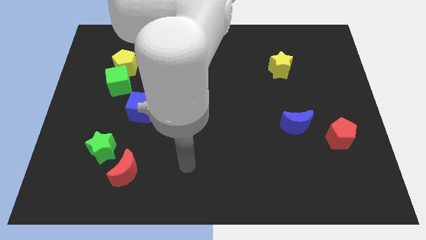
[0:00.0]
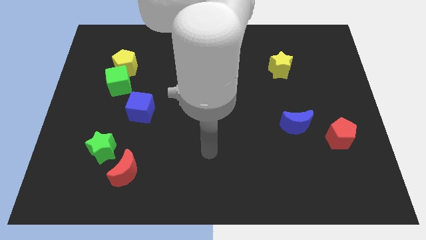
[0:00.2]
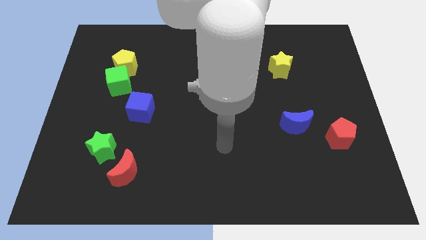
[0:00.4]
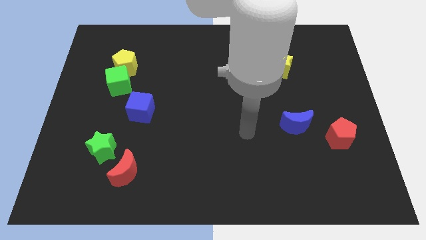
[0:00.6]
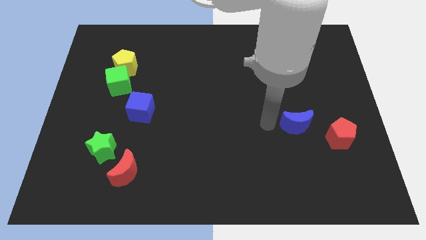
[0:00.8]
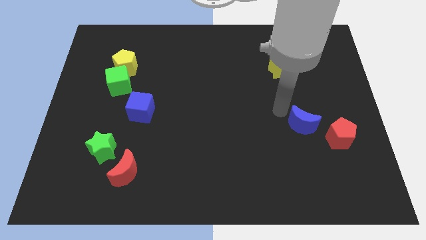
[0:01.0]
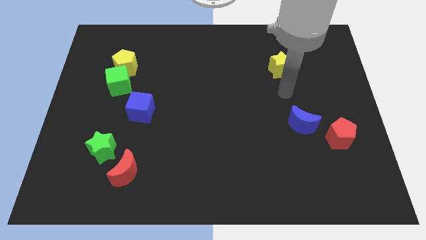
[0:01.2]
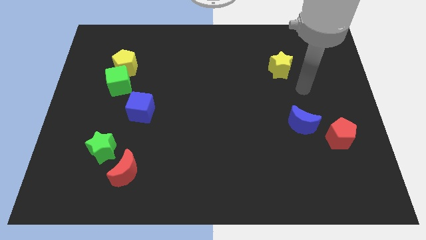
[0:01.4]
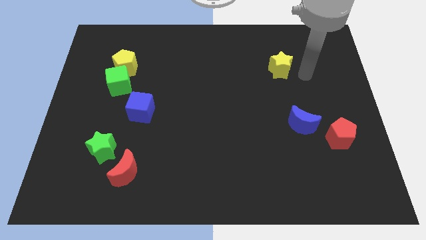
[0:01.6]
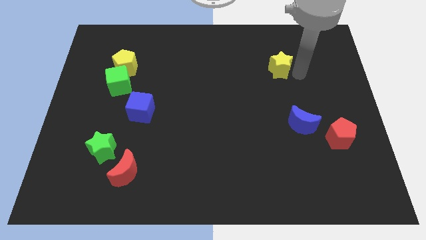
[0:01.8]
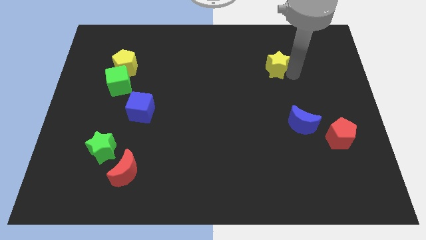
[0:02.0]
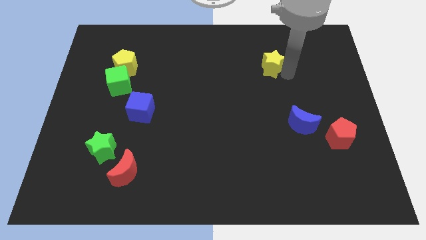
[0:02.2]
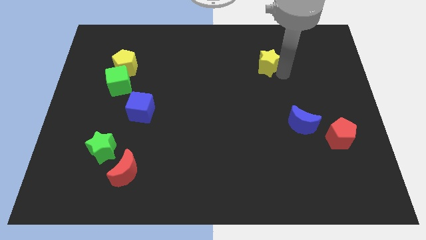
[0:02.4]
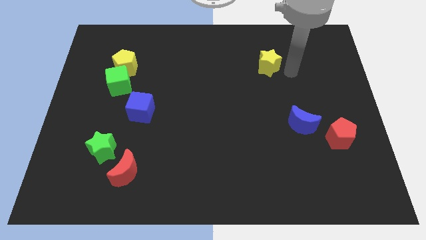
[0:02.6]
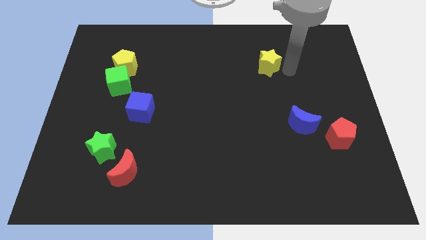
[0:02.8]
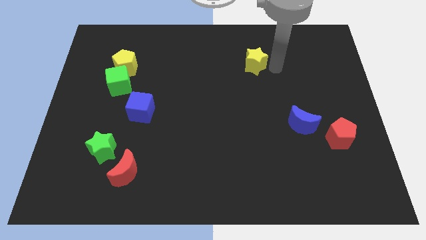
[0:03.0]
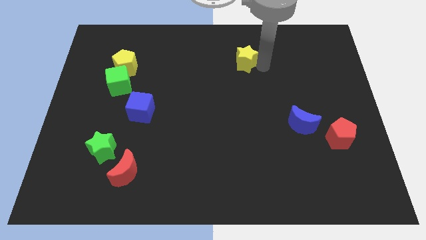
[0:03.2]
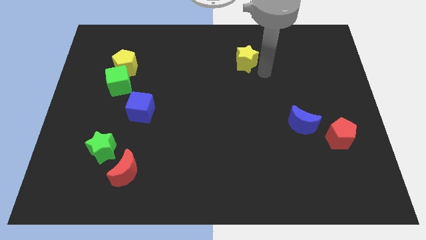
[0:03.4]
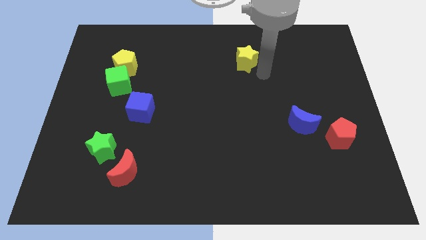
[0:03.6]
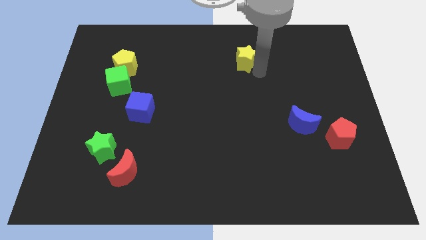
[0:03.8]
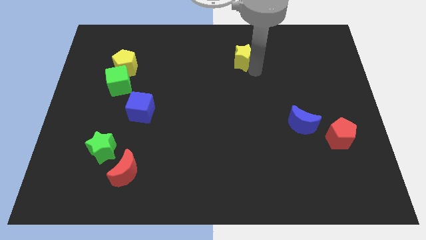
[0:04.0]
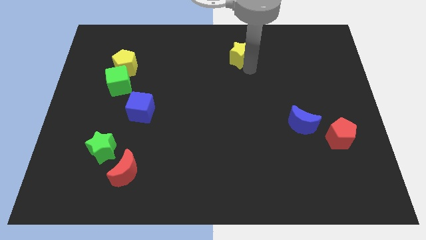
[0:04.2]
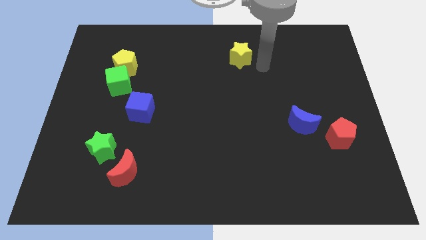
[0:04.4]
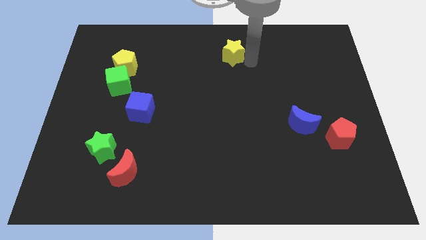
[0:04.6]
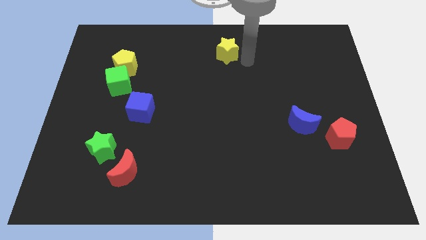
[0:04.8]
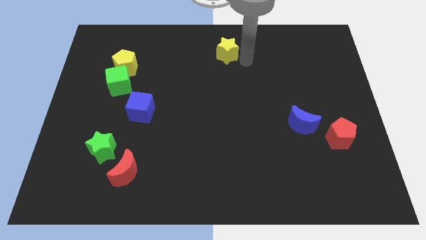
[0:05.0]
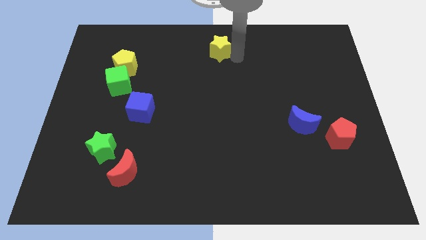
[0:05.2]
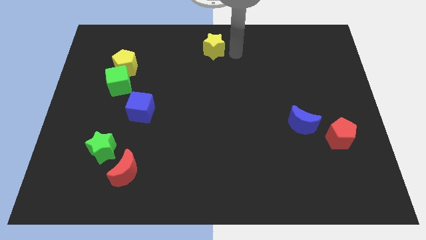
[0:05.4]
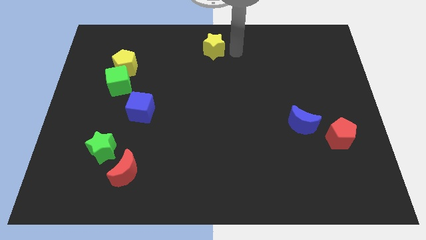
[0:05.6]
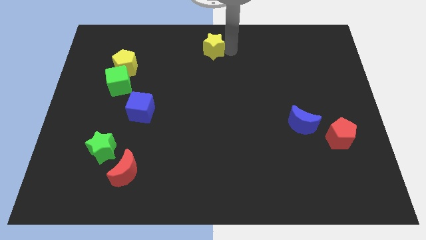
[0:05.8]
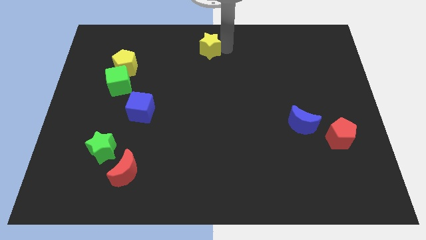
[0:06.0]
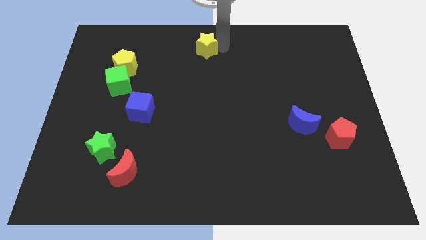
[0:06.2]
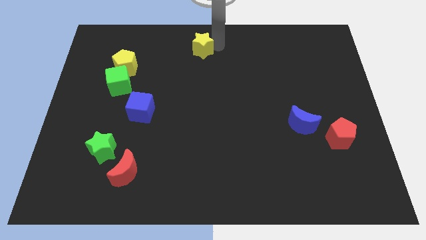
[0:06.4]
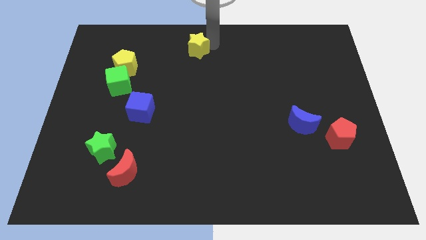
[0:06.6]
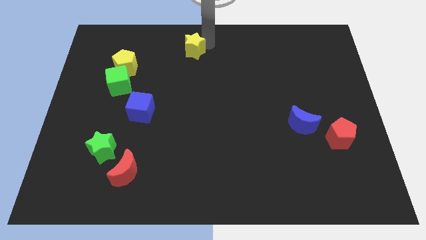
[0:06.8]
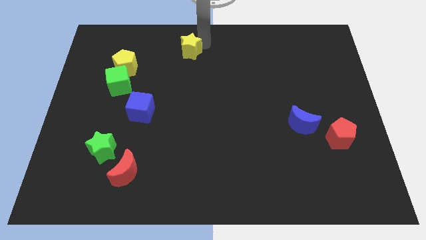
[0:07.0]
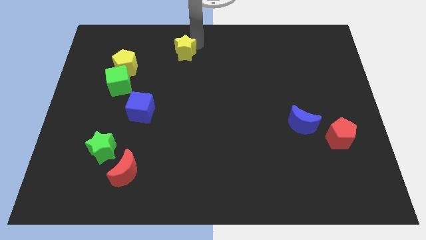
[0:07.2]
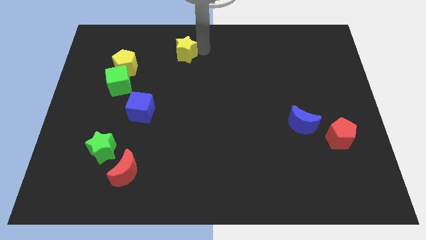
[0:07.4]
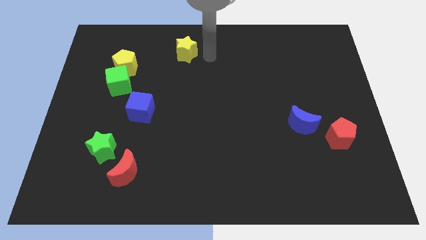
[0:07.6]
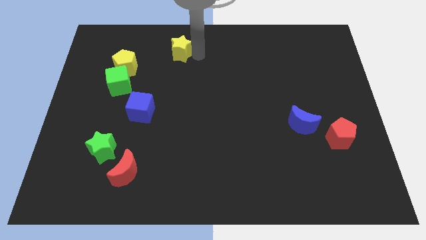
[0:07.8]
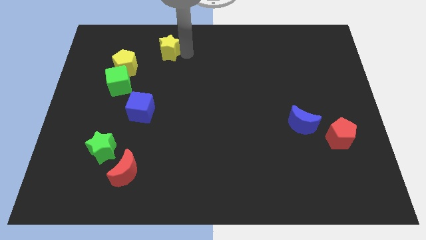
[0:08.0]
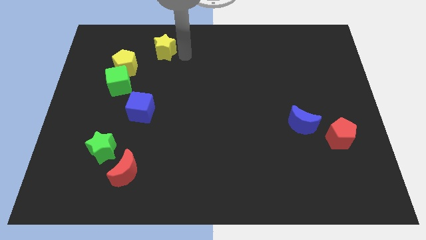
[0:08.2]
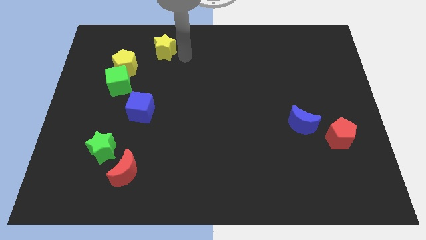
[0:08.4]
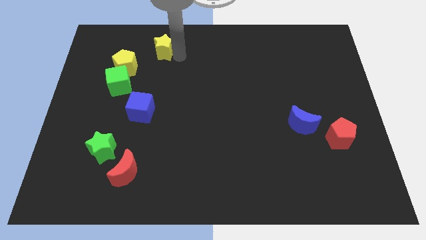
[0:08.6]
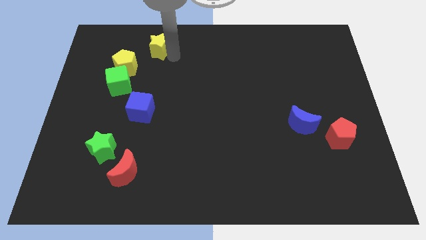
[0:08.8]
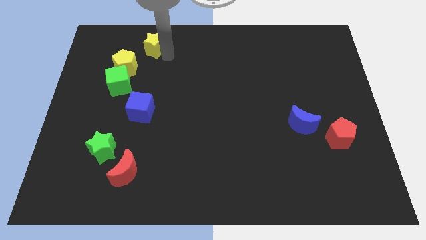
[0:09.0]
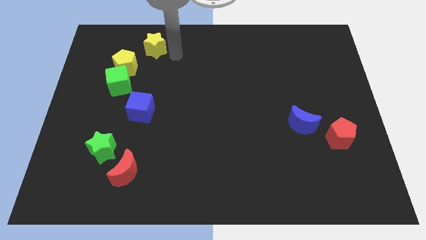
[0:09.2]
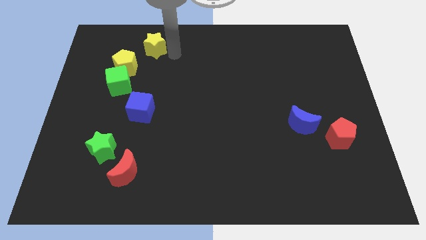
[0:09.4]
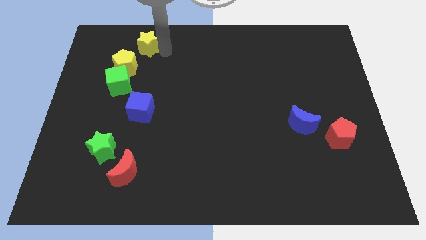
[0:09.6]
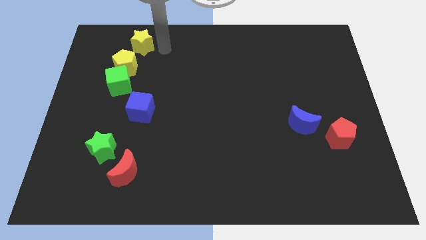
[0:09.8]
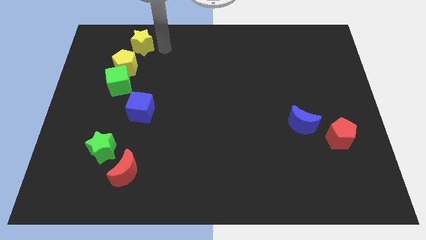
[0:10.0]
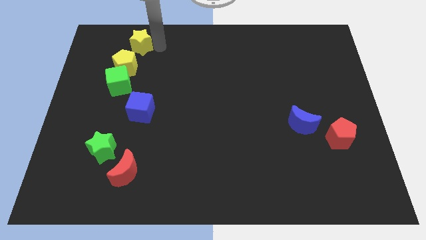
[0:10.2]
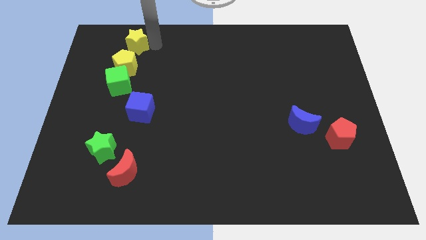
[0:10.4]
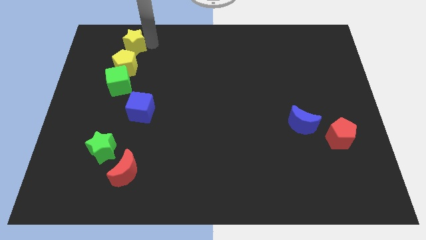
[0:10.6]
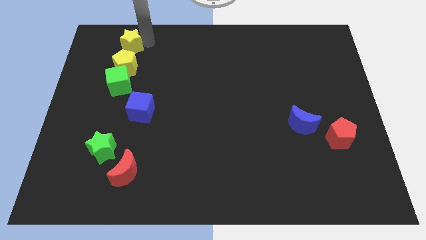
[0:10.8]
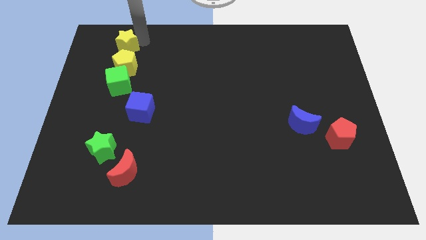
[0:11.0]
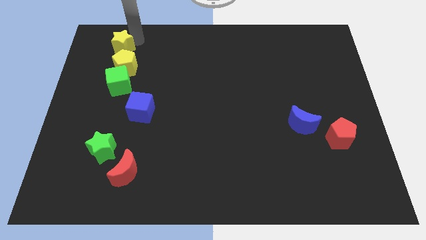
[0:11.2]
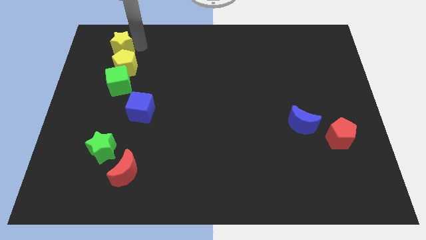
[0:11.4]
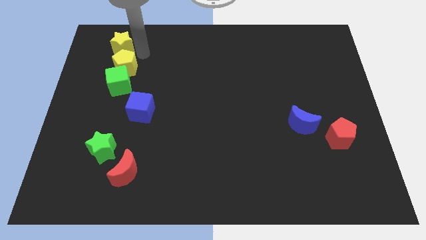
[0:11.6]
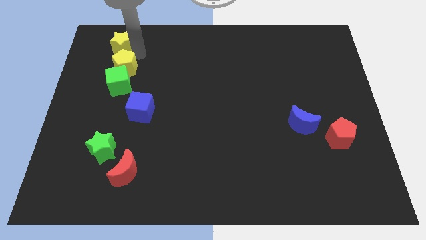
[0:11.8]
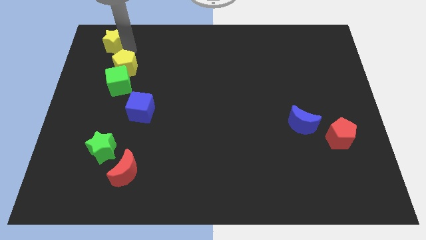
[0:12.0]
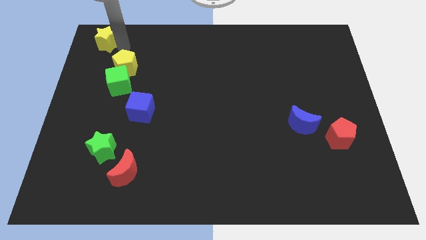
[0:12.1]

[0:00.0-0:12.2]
put the yellow star to the top left

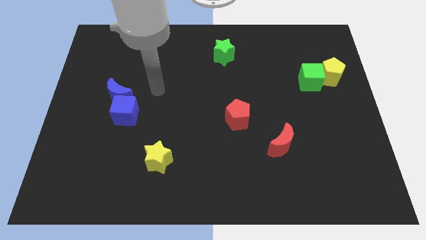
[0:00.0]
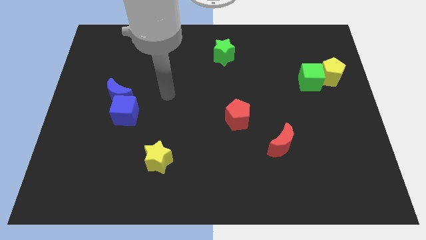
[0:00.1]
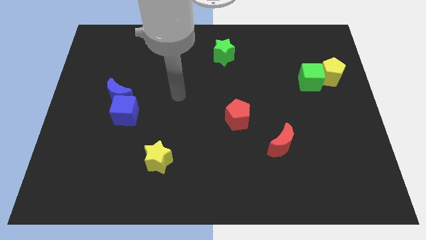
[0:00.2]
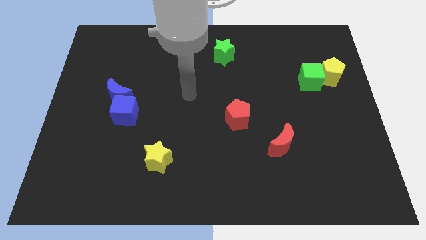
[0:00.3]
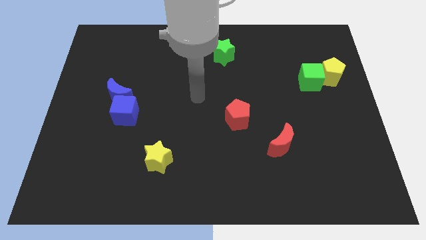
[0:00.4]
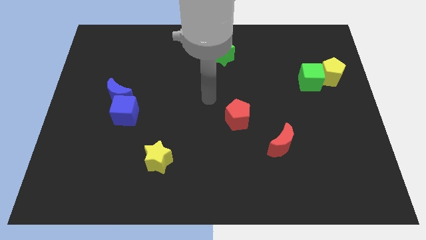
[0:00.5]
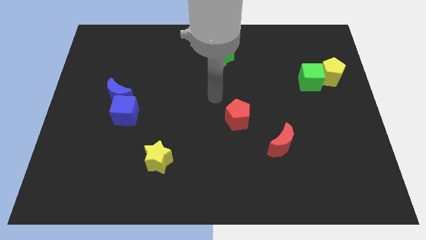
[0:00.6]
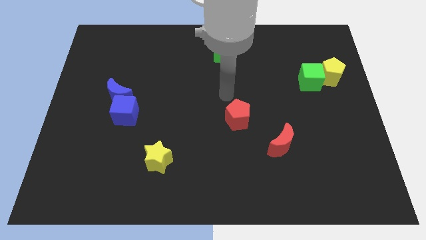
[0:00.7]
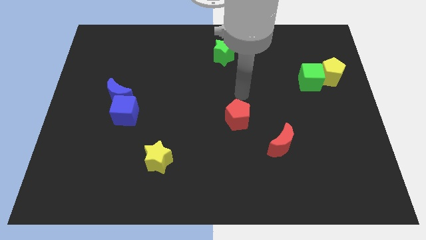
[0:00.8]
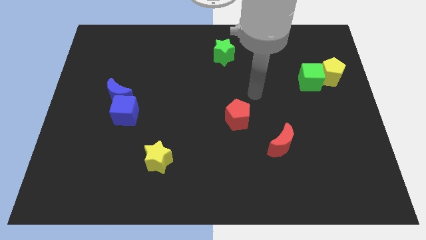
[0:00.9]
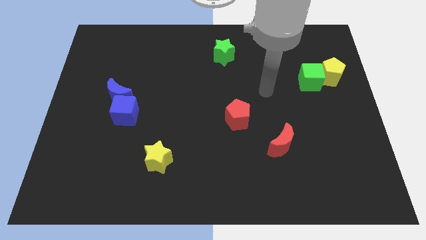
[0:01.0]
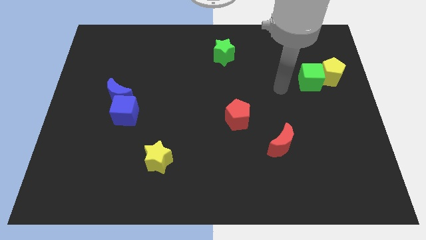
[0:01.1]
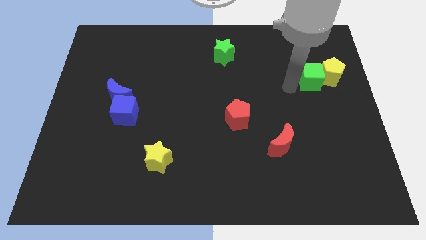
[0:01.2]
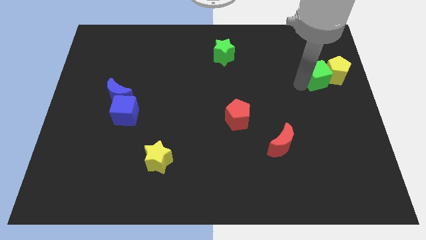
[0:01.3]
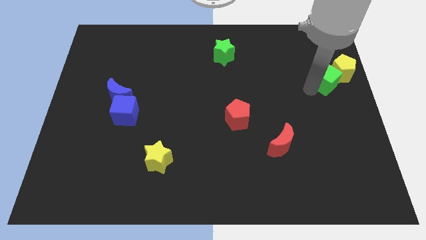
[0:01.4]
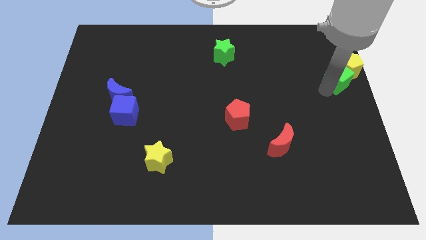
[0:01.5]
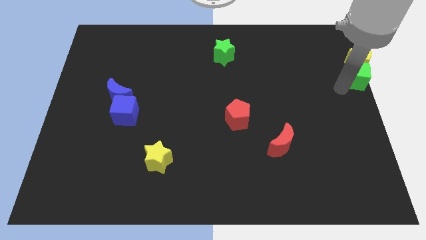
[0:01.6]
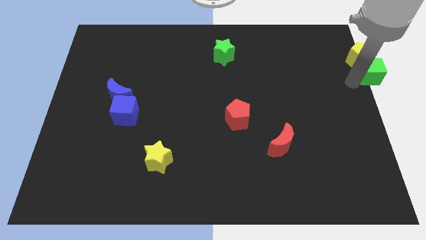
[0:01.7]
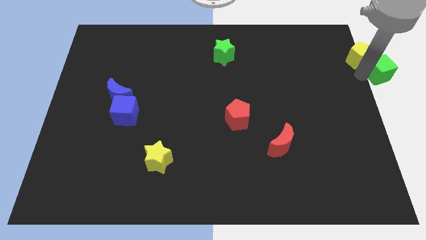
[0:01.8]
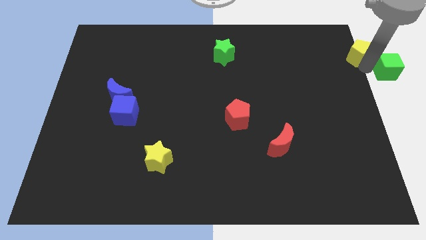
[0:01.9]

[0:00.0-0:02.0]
push the yellow pentagon to the top right of the board
